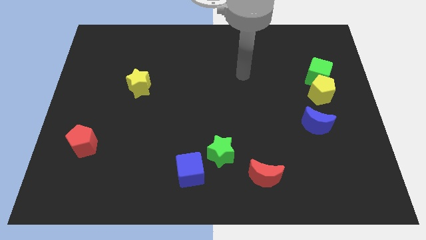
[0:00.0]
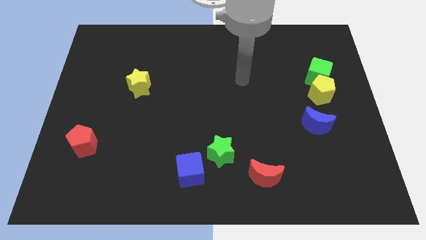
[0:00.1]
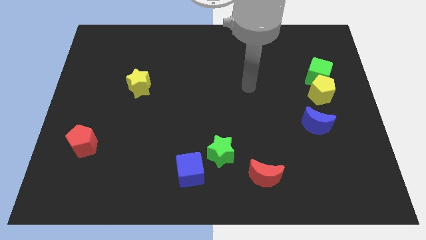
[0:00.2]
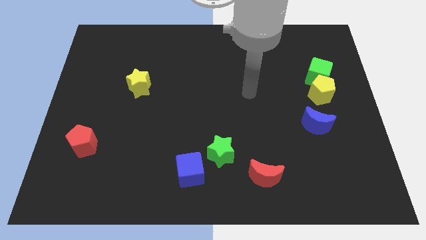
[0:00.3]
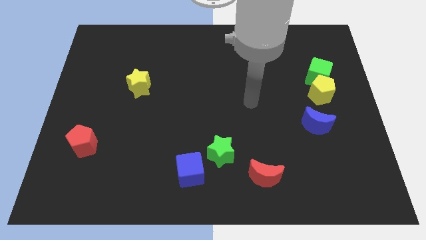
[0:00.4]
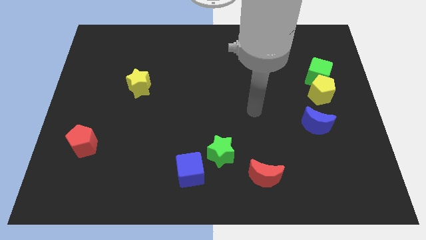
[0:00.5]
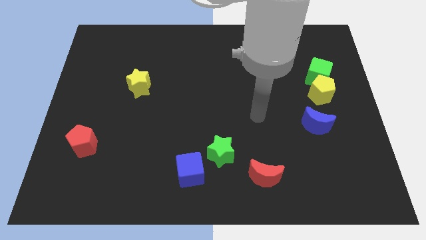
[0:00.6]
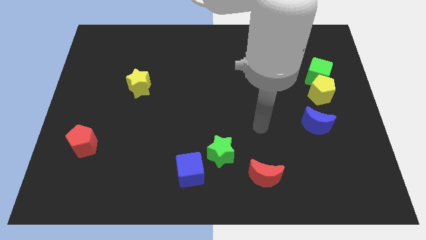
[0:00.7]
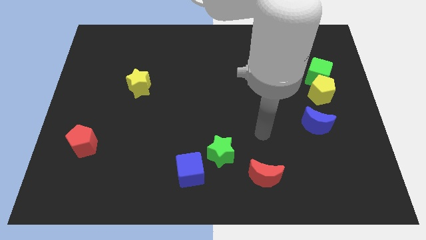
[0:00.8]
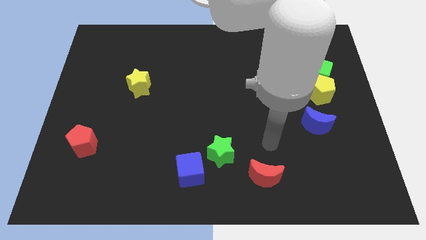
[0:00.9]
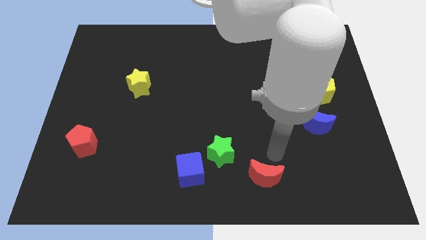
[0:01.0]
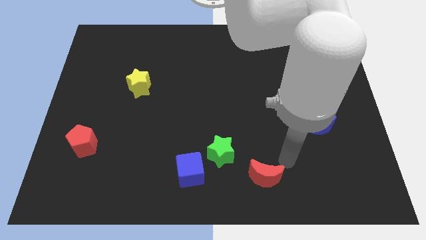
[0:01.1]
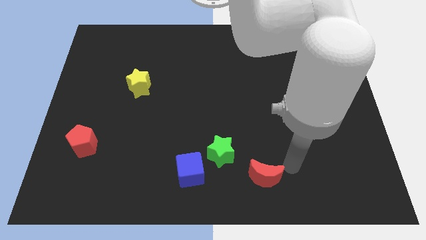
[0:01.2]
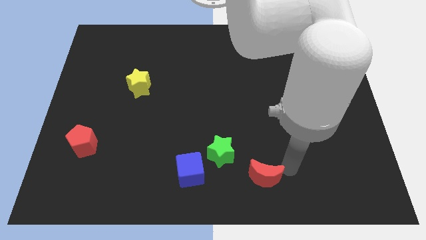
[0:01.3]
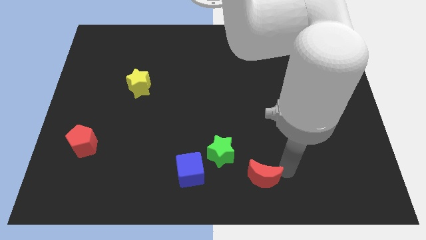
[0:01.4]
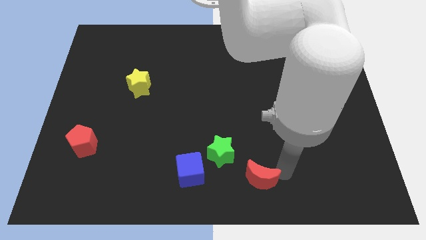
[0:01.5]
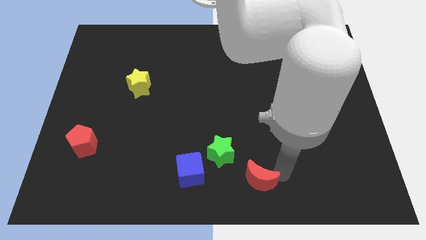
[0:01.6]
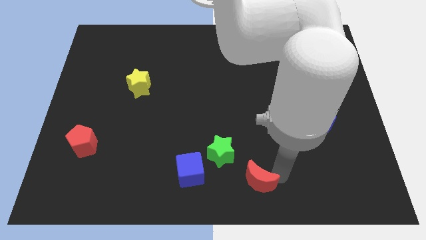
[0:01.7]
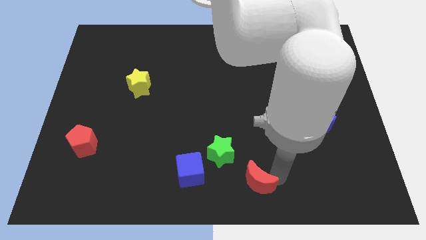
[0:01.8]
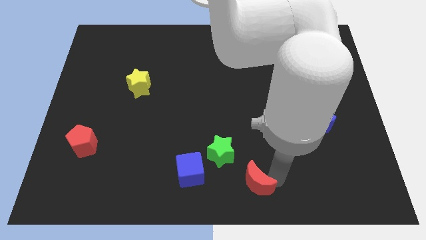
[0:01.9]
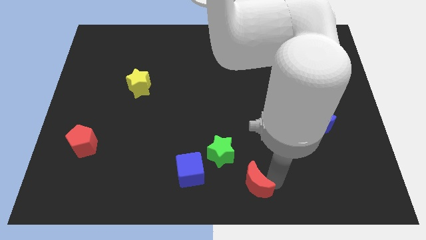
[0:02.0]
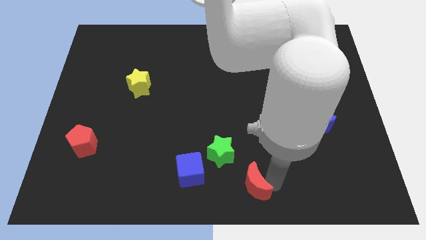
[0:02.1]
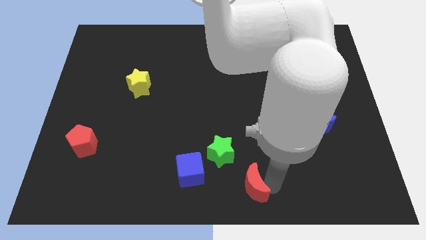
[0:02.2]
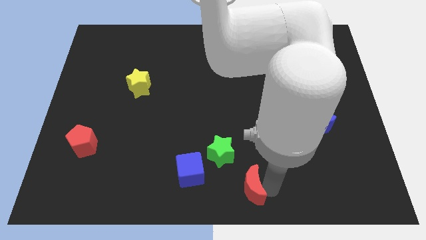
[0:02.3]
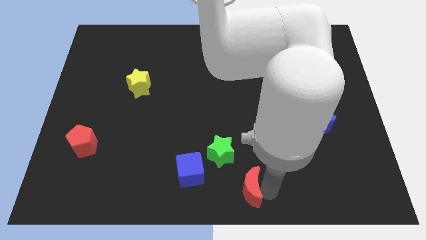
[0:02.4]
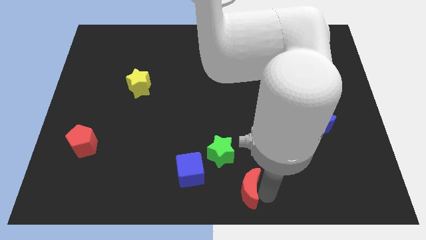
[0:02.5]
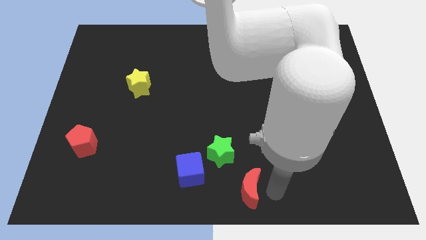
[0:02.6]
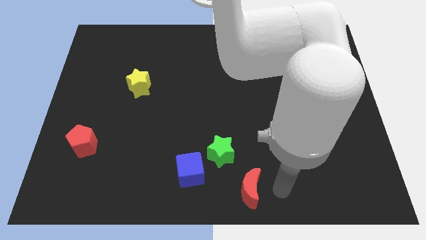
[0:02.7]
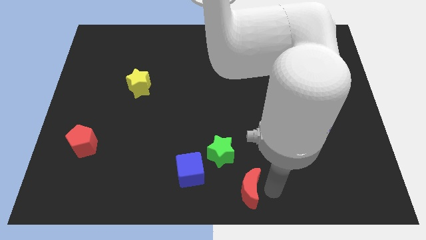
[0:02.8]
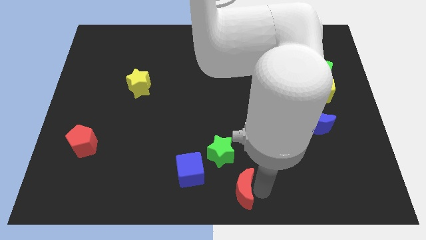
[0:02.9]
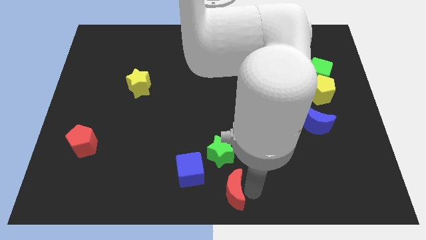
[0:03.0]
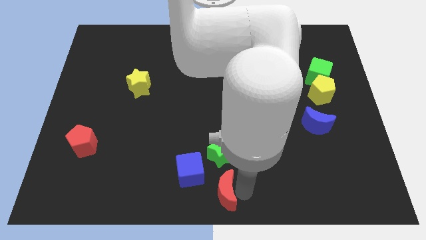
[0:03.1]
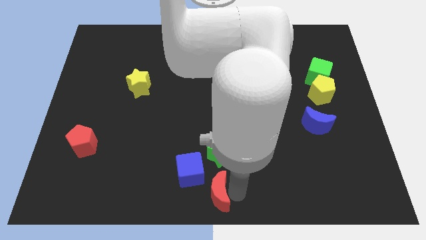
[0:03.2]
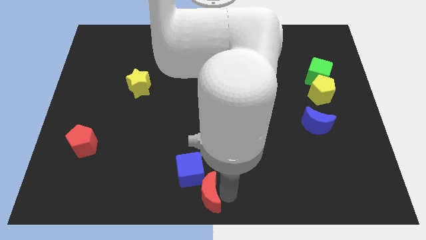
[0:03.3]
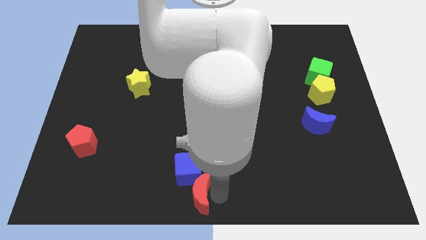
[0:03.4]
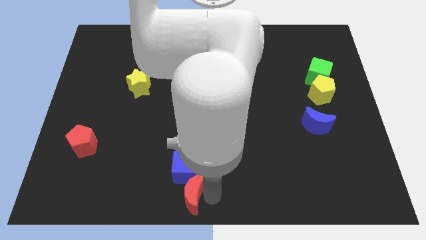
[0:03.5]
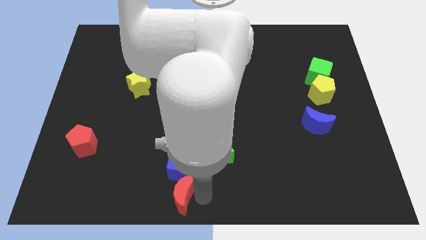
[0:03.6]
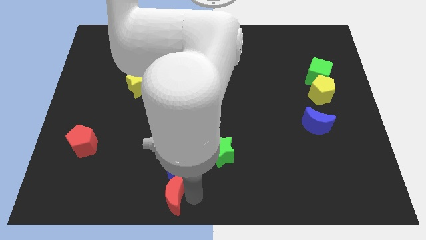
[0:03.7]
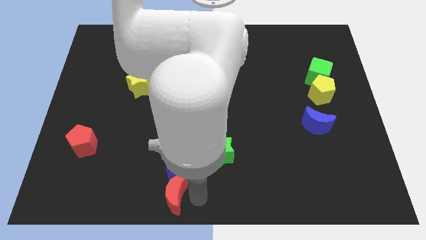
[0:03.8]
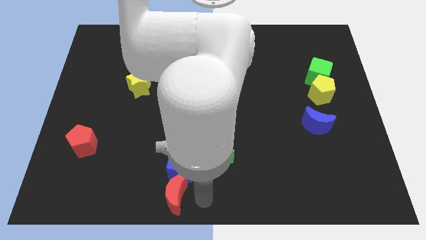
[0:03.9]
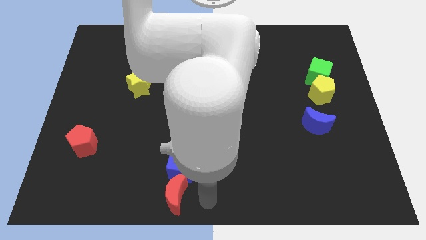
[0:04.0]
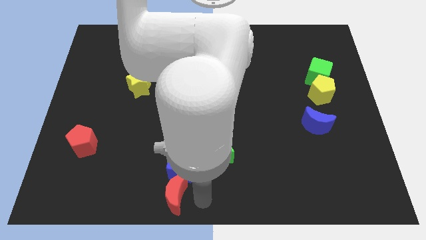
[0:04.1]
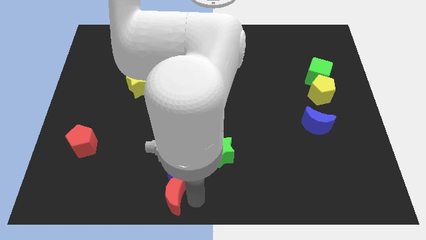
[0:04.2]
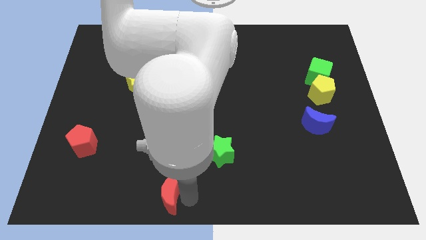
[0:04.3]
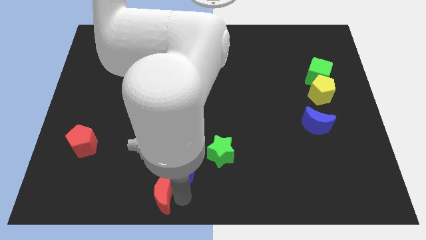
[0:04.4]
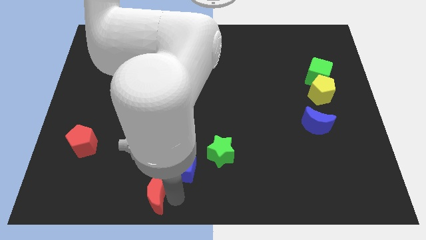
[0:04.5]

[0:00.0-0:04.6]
push the red moon left

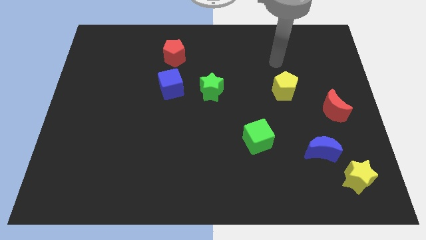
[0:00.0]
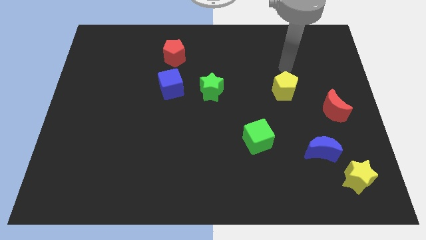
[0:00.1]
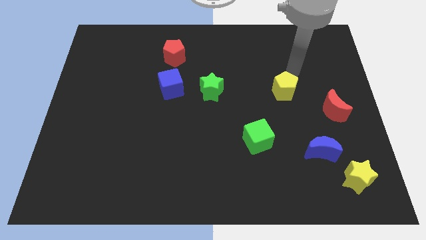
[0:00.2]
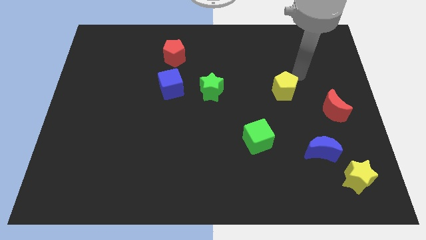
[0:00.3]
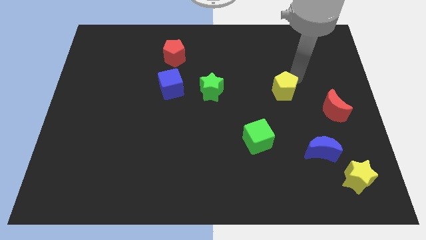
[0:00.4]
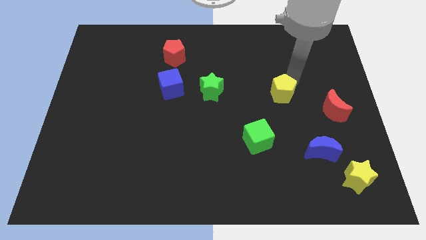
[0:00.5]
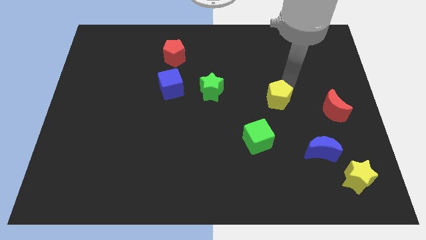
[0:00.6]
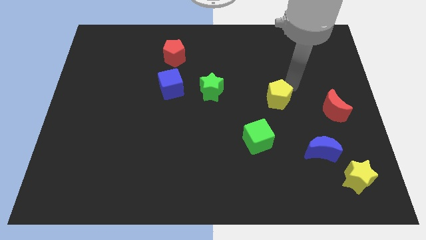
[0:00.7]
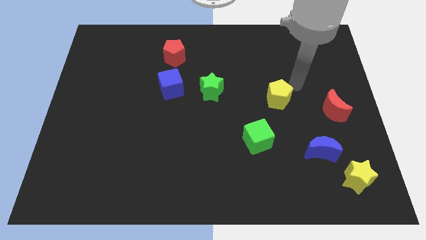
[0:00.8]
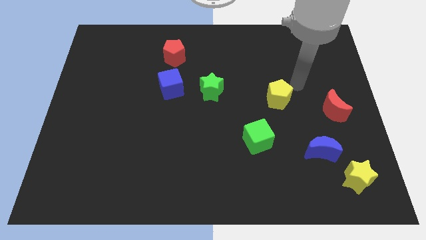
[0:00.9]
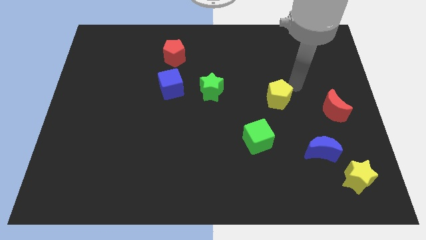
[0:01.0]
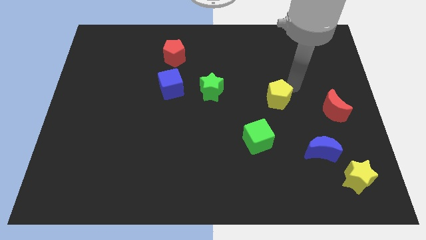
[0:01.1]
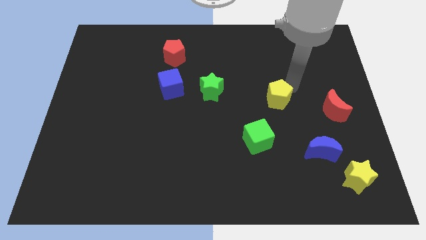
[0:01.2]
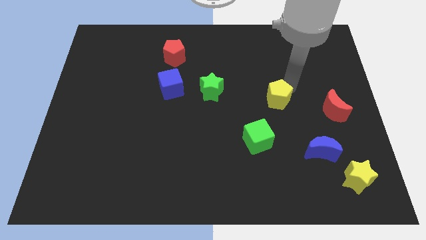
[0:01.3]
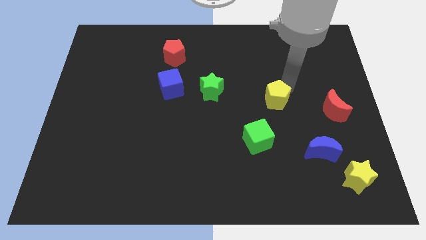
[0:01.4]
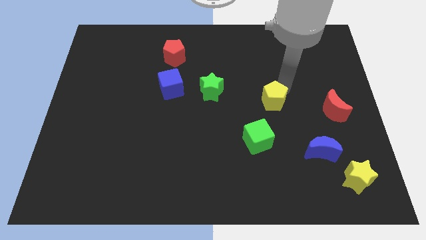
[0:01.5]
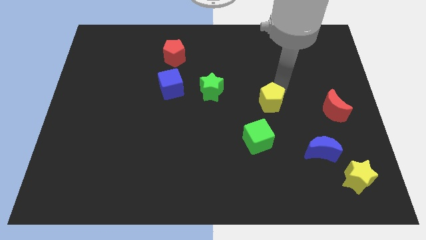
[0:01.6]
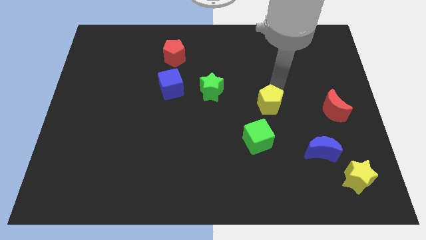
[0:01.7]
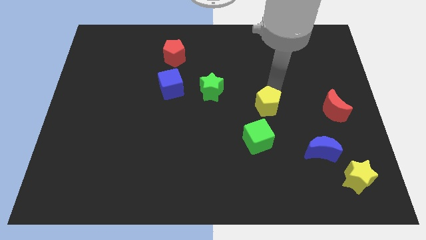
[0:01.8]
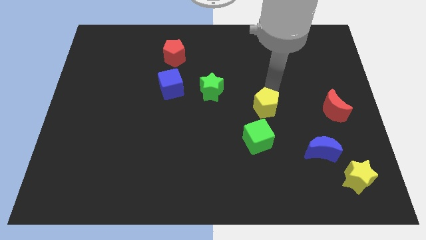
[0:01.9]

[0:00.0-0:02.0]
move the yellow pentagon diagonally downwards and left a bit

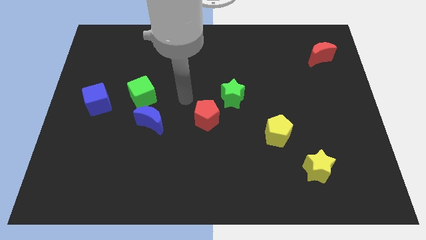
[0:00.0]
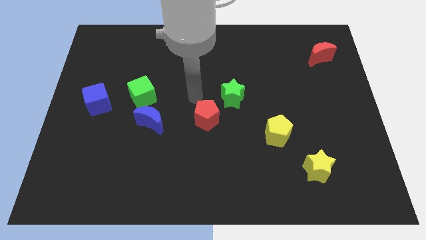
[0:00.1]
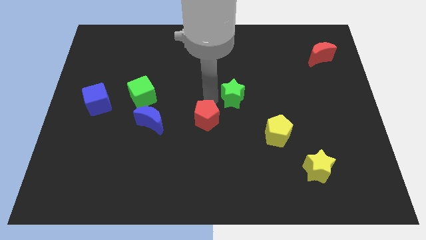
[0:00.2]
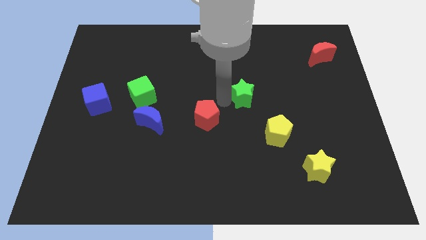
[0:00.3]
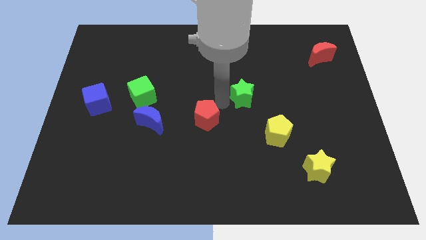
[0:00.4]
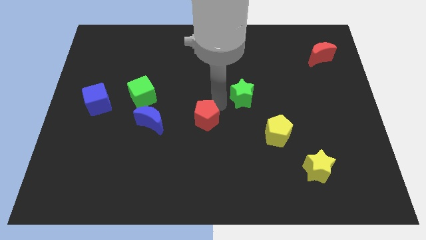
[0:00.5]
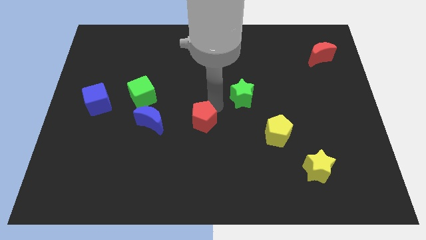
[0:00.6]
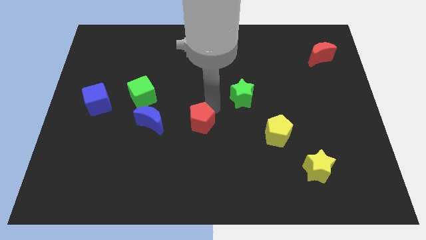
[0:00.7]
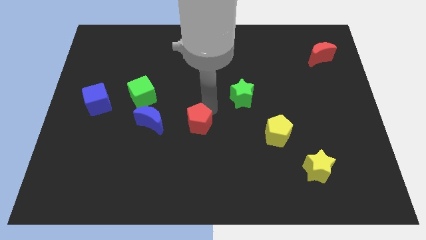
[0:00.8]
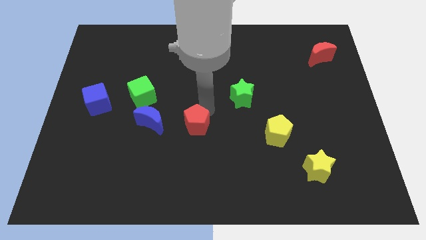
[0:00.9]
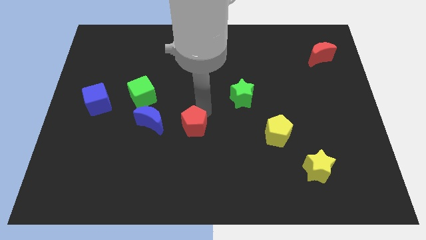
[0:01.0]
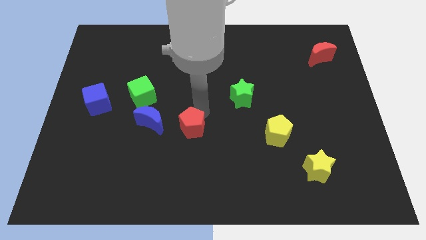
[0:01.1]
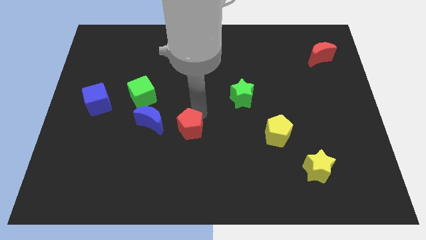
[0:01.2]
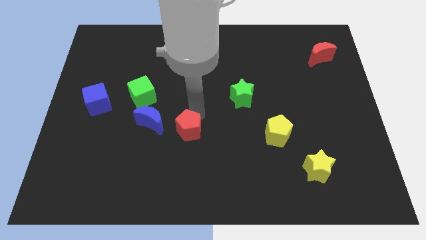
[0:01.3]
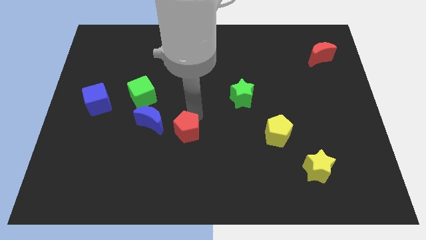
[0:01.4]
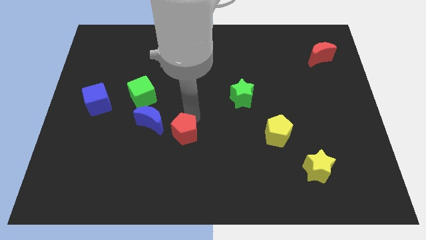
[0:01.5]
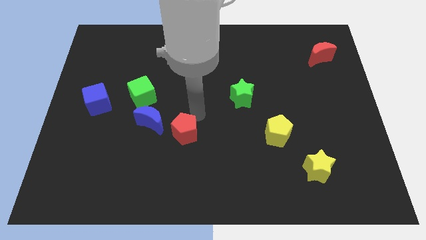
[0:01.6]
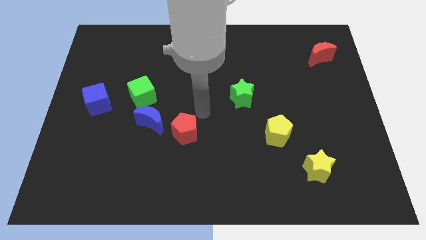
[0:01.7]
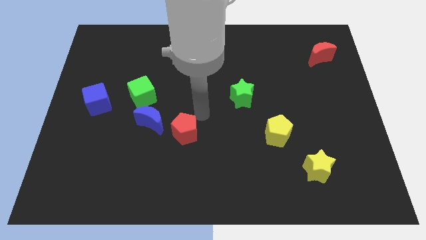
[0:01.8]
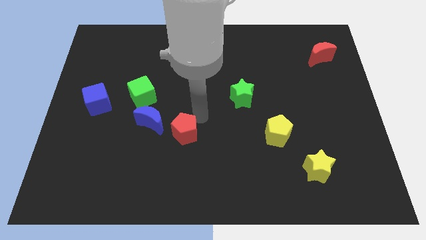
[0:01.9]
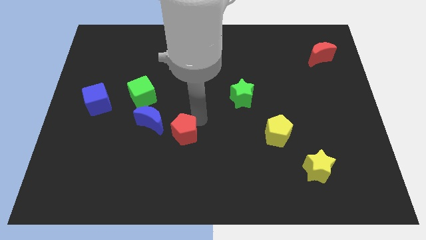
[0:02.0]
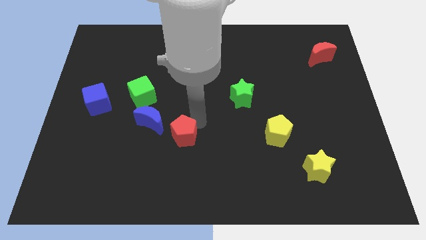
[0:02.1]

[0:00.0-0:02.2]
move the red pentagon down and left diagonally somewhat
